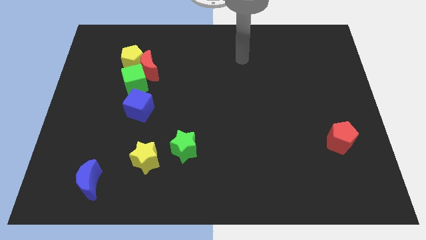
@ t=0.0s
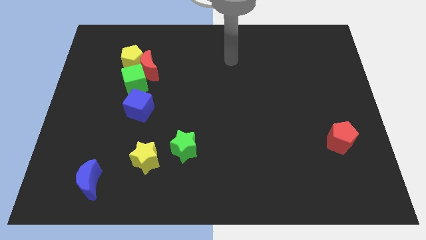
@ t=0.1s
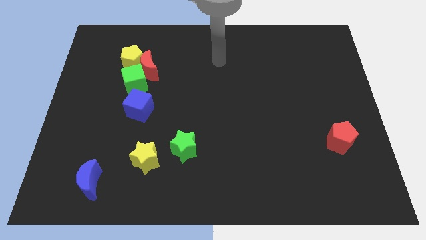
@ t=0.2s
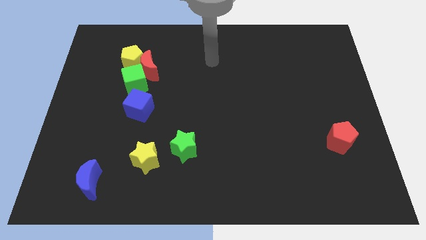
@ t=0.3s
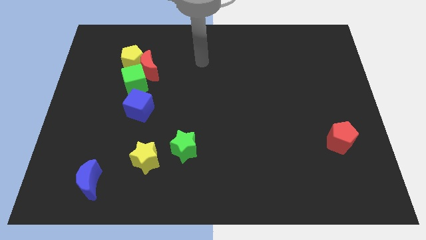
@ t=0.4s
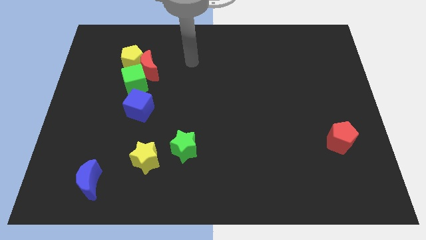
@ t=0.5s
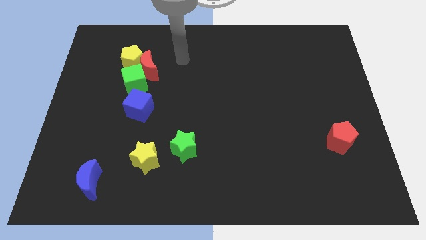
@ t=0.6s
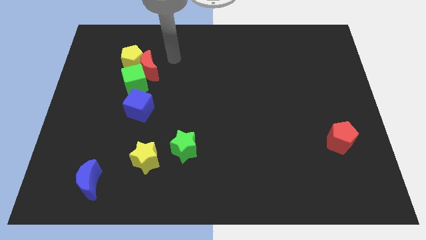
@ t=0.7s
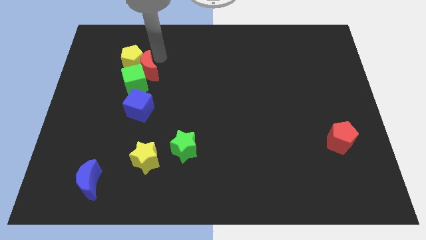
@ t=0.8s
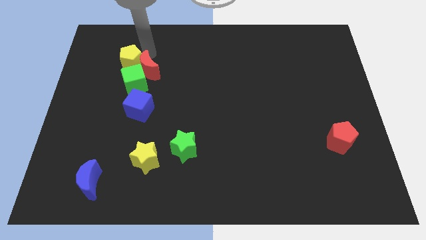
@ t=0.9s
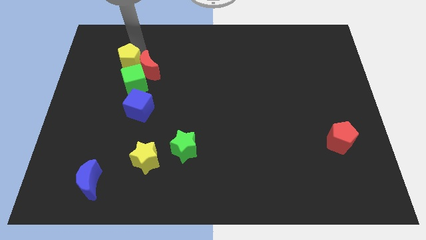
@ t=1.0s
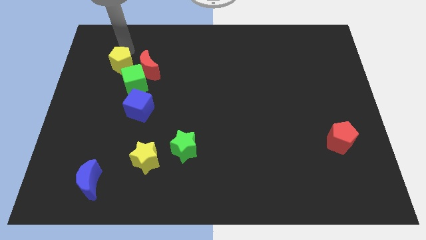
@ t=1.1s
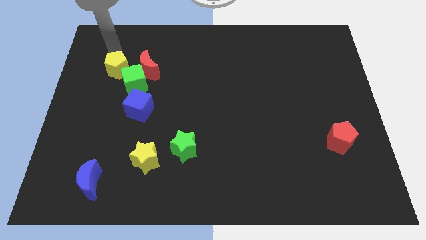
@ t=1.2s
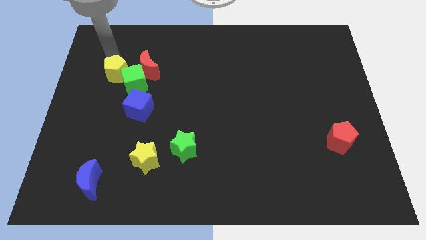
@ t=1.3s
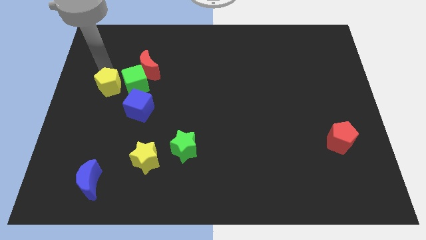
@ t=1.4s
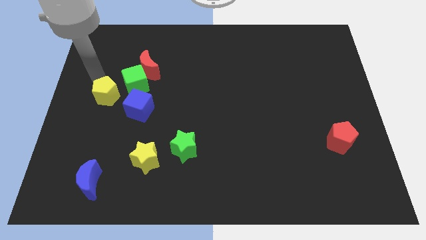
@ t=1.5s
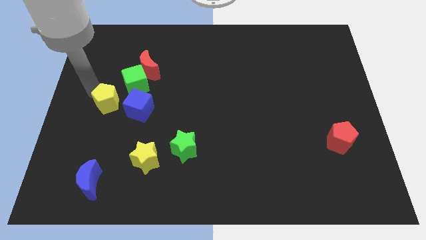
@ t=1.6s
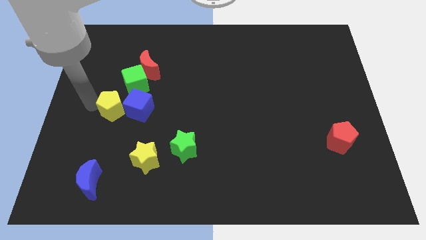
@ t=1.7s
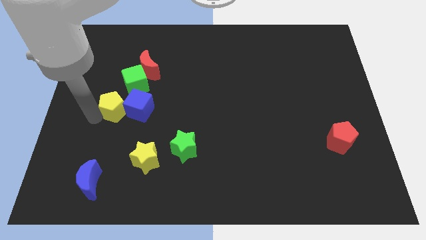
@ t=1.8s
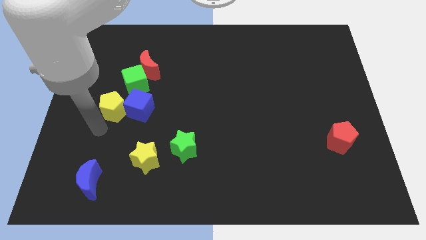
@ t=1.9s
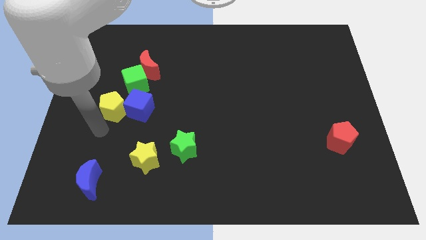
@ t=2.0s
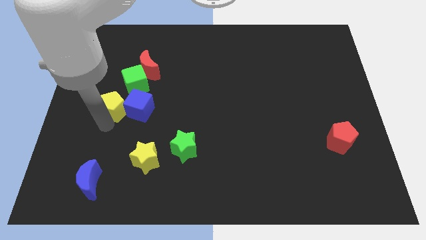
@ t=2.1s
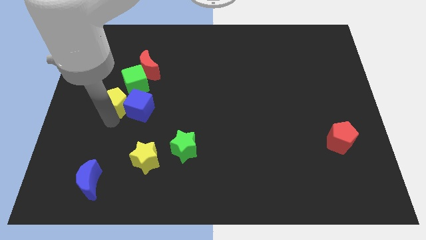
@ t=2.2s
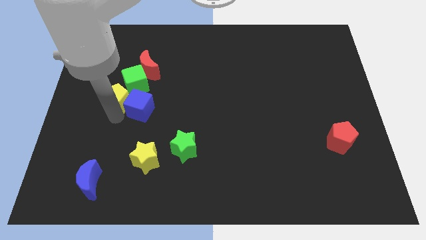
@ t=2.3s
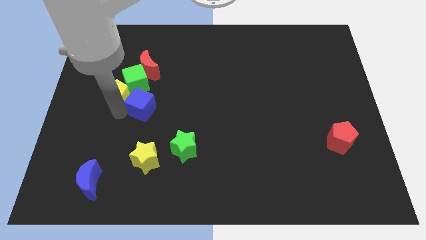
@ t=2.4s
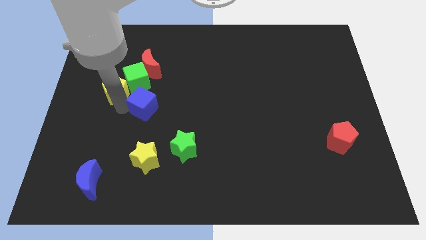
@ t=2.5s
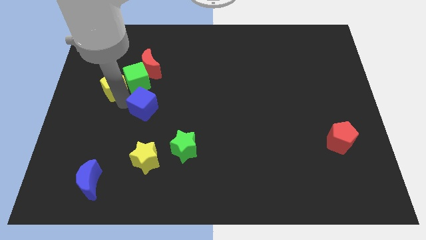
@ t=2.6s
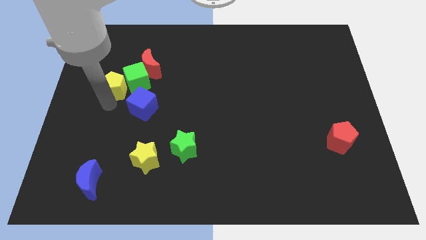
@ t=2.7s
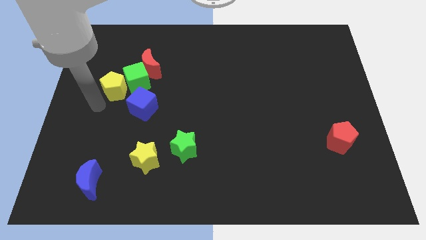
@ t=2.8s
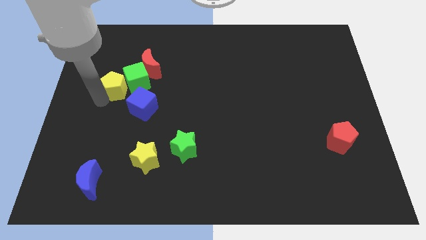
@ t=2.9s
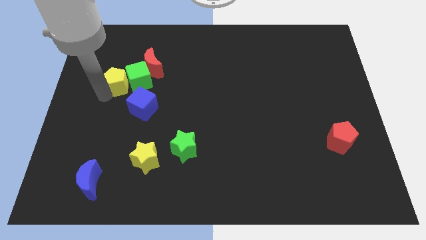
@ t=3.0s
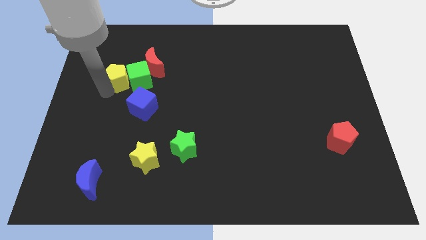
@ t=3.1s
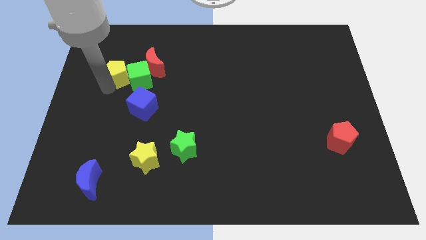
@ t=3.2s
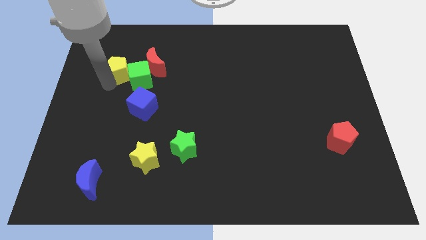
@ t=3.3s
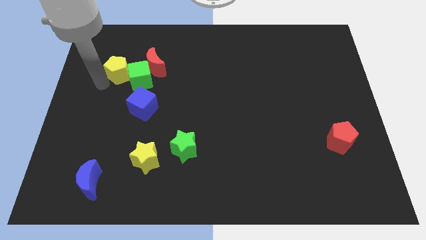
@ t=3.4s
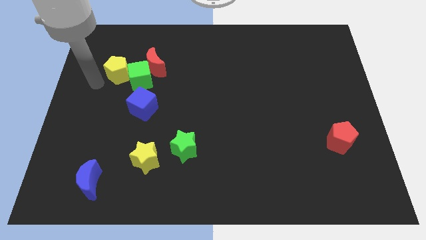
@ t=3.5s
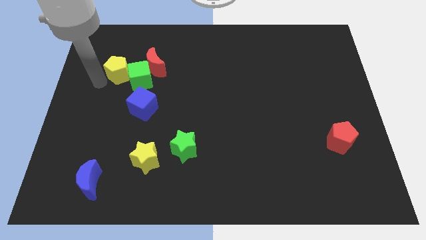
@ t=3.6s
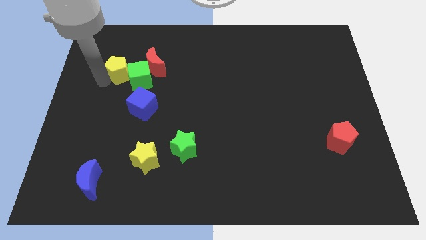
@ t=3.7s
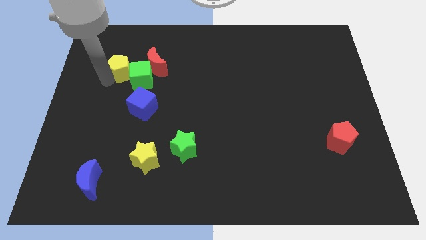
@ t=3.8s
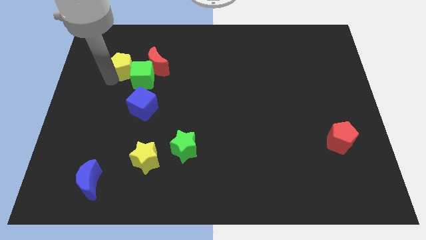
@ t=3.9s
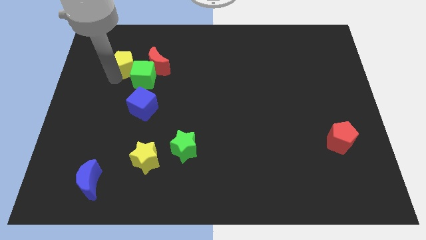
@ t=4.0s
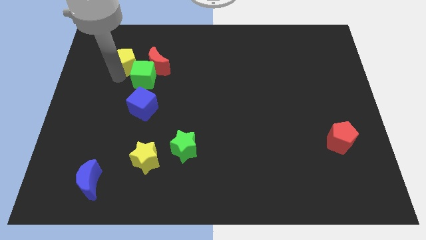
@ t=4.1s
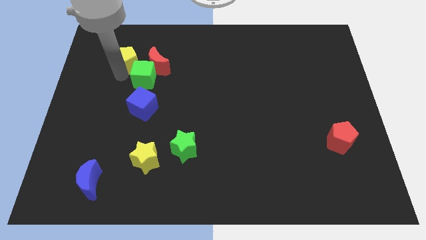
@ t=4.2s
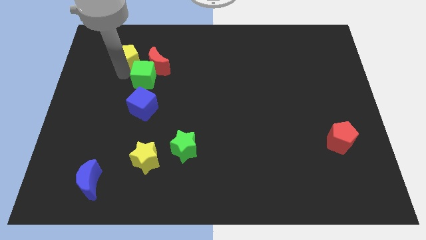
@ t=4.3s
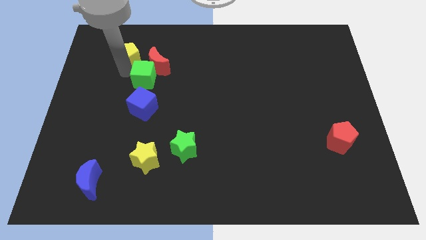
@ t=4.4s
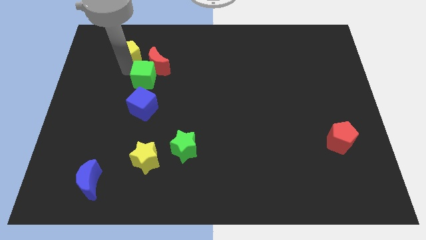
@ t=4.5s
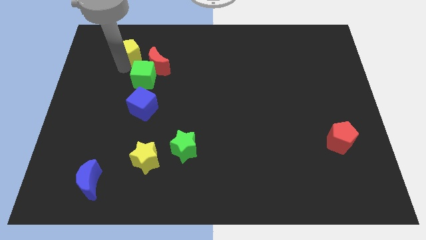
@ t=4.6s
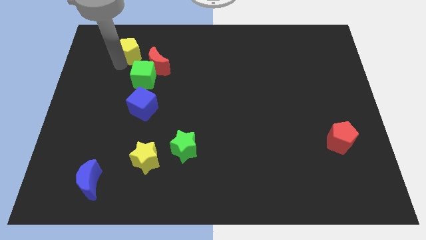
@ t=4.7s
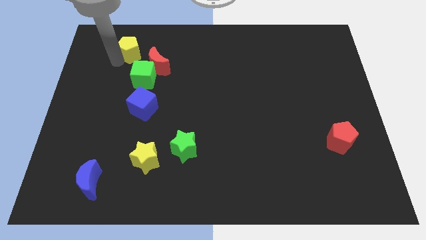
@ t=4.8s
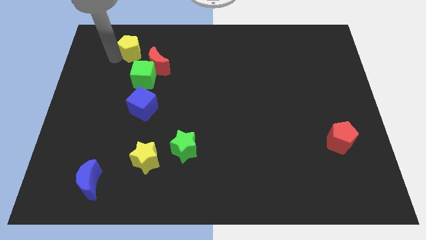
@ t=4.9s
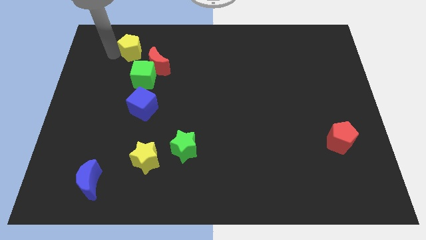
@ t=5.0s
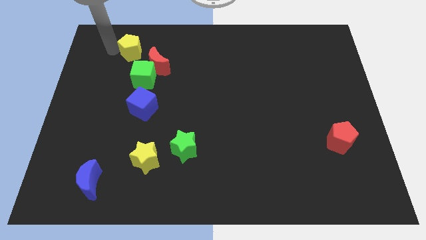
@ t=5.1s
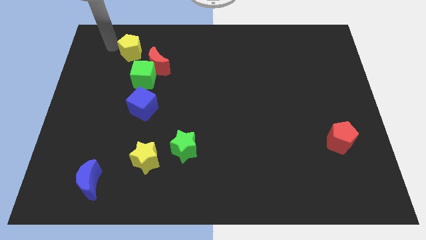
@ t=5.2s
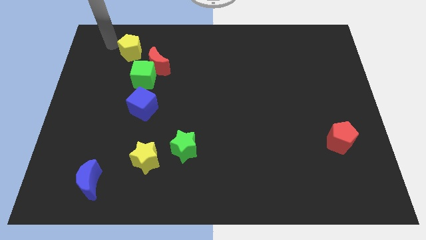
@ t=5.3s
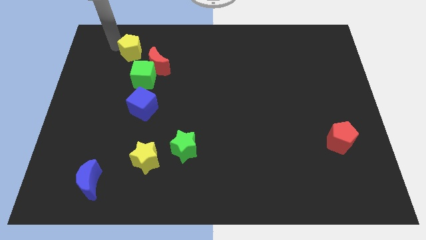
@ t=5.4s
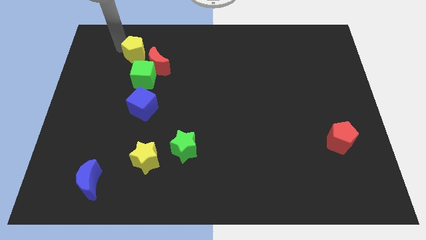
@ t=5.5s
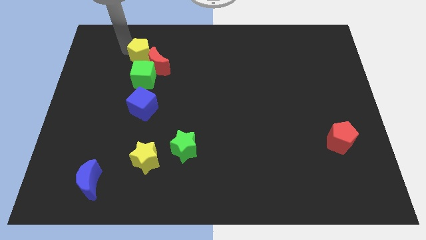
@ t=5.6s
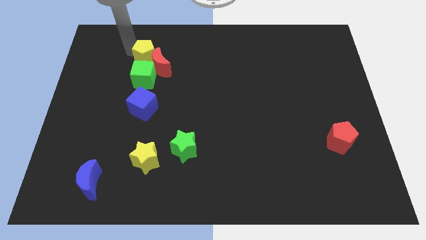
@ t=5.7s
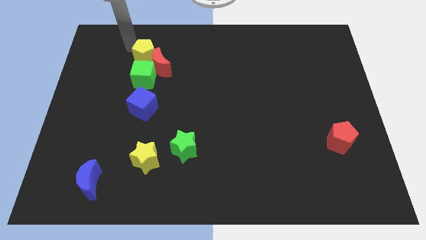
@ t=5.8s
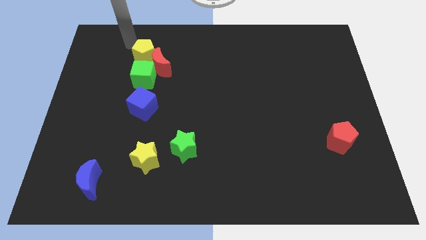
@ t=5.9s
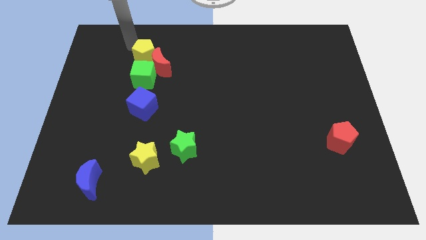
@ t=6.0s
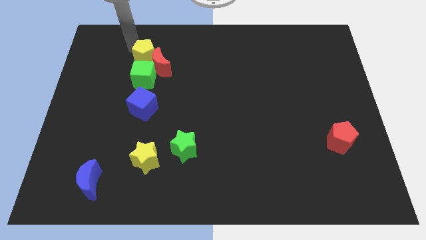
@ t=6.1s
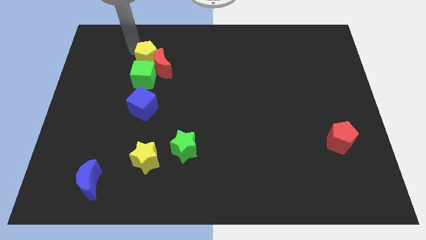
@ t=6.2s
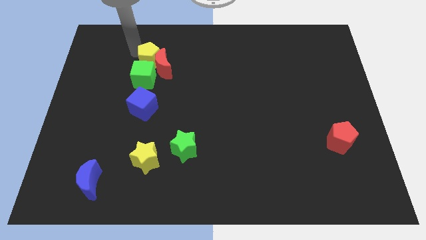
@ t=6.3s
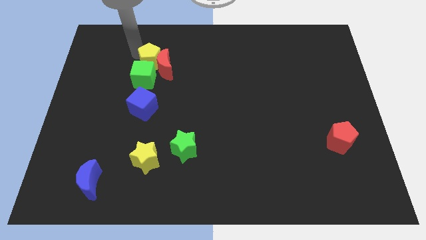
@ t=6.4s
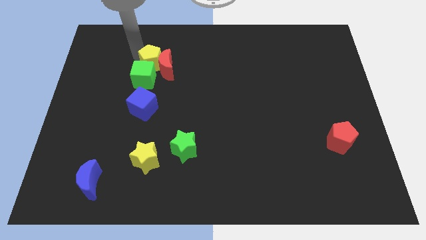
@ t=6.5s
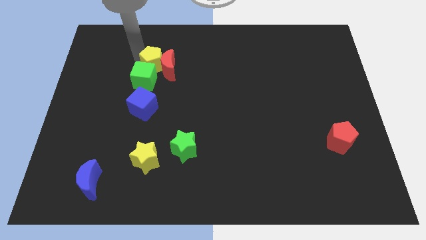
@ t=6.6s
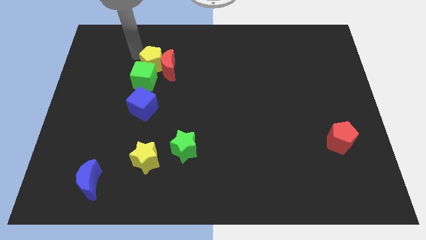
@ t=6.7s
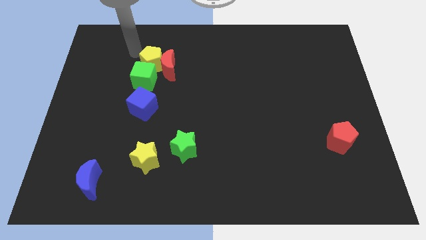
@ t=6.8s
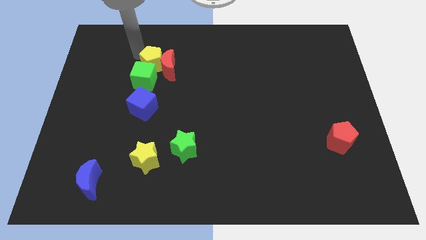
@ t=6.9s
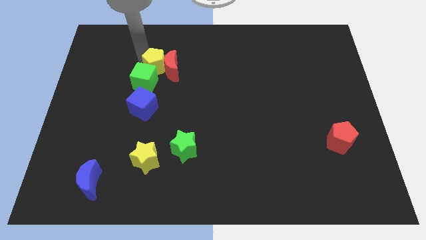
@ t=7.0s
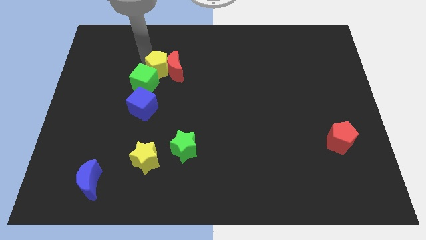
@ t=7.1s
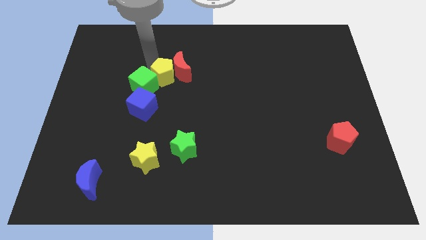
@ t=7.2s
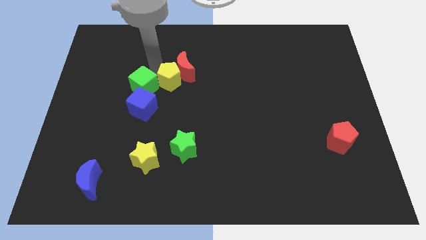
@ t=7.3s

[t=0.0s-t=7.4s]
put the yellow pentagon to the middle

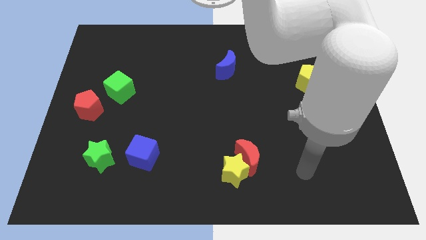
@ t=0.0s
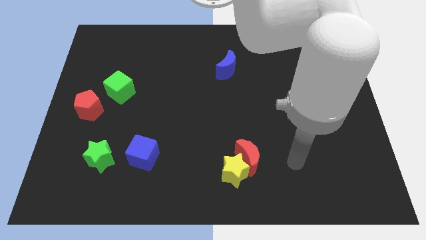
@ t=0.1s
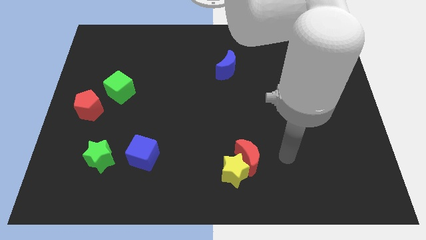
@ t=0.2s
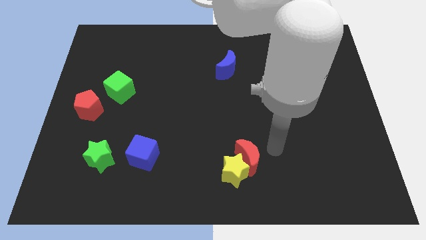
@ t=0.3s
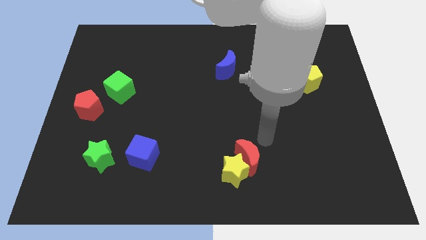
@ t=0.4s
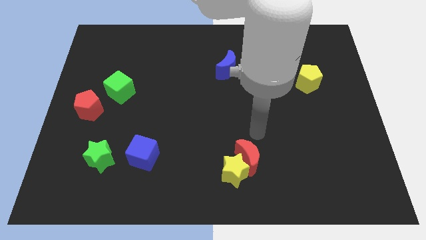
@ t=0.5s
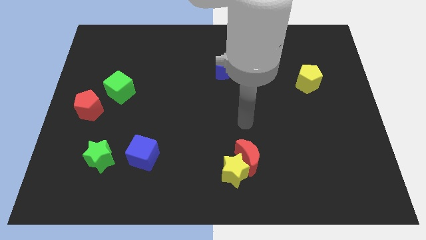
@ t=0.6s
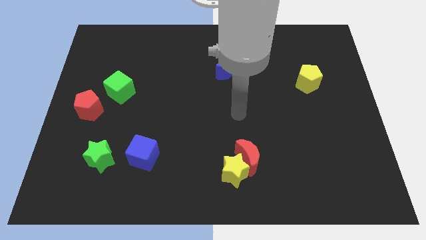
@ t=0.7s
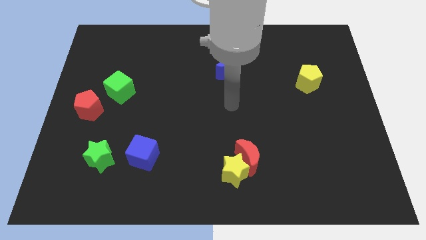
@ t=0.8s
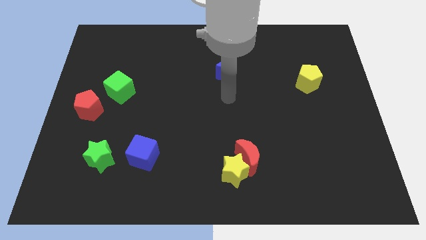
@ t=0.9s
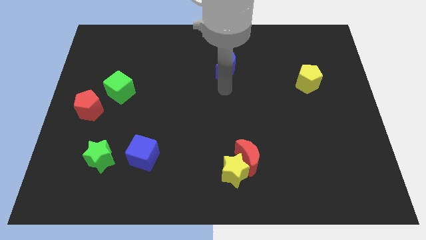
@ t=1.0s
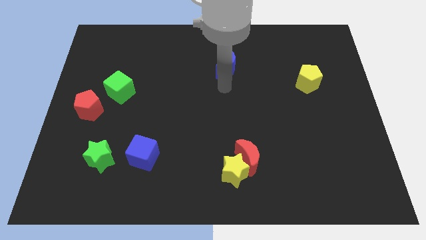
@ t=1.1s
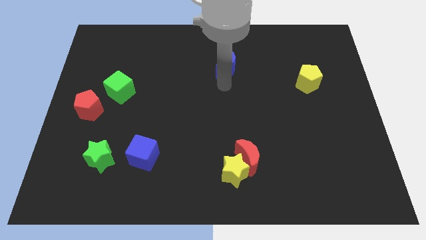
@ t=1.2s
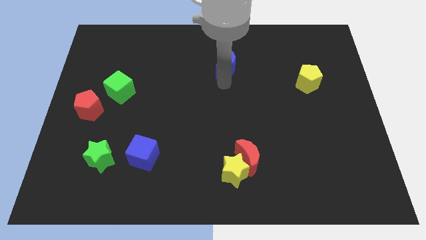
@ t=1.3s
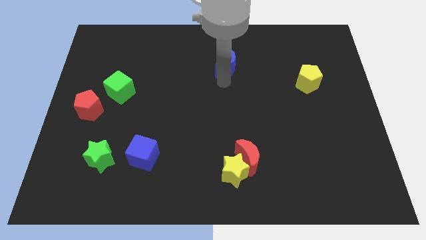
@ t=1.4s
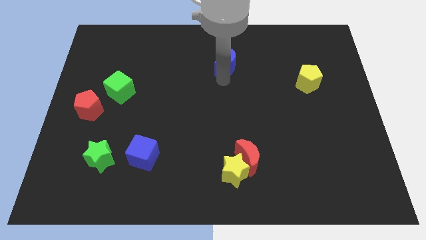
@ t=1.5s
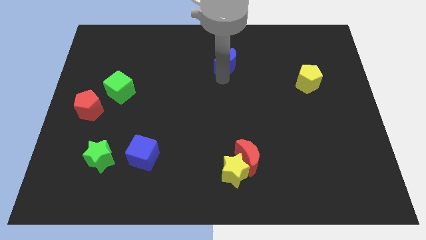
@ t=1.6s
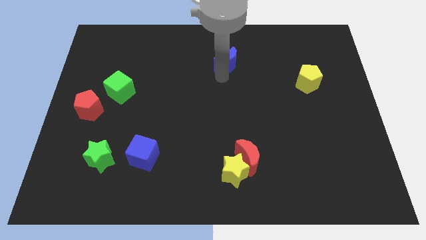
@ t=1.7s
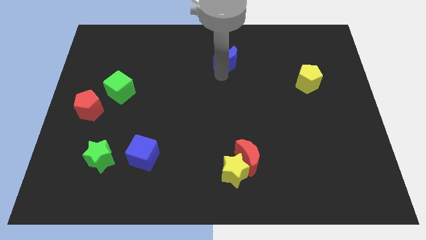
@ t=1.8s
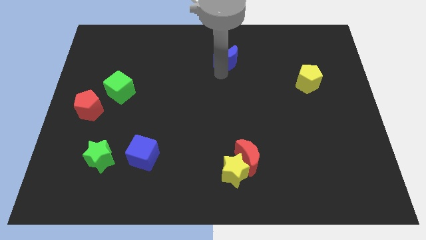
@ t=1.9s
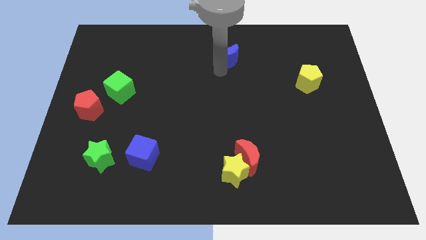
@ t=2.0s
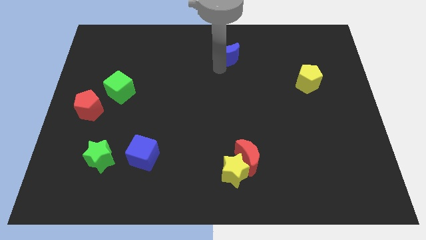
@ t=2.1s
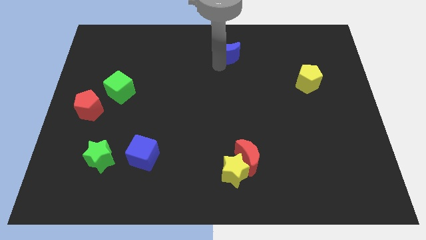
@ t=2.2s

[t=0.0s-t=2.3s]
put the blue moon to the top
